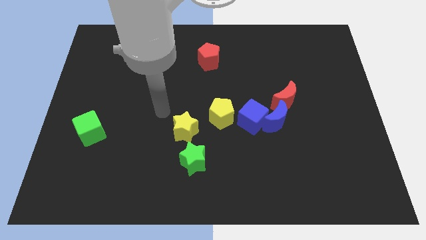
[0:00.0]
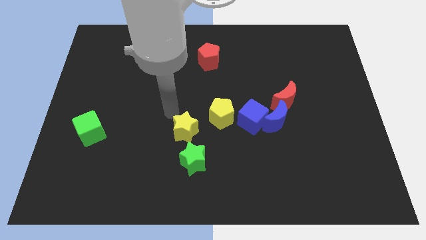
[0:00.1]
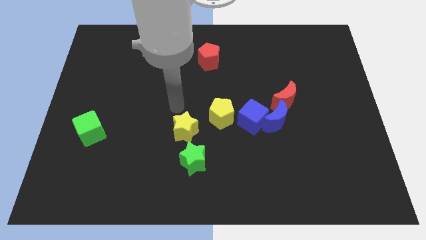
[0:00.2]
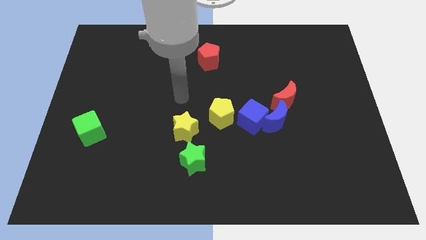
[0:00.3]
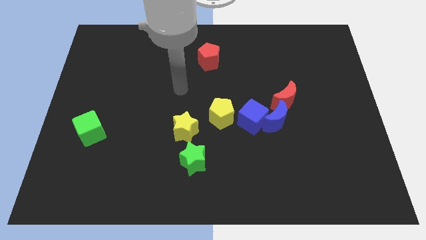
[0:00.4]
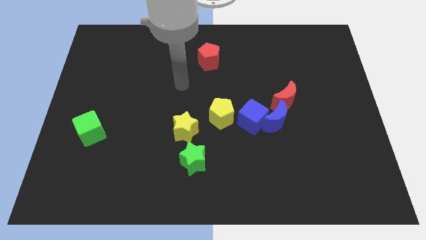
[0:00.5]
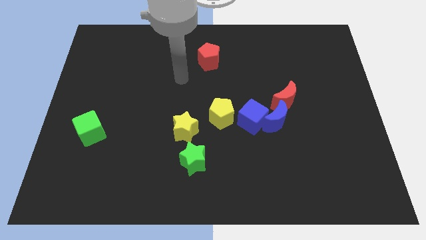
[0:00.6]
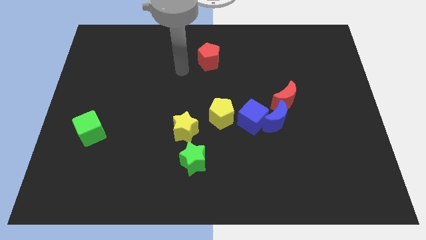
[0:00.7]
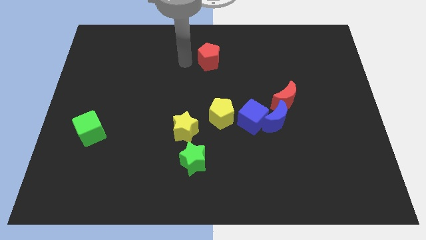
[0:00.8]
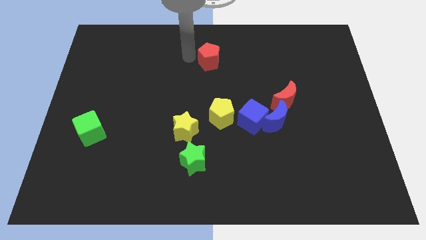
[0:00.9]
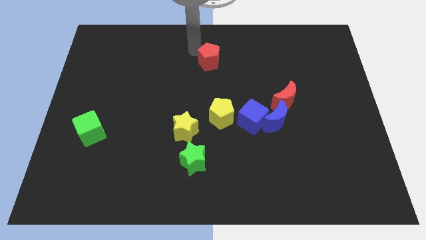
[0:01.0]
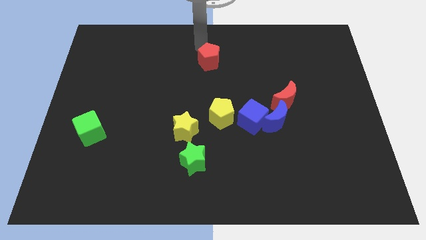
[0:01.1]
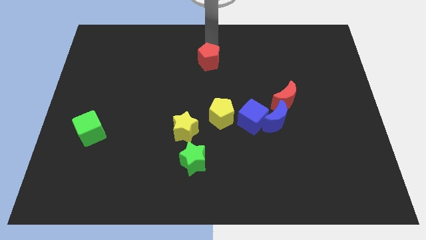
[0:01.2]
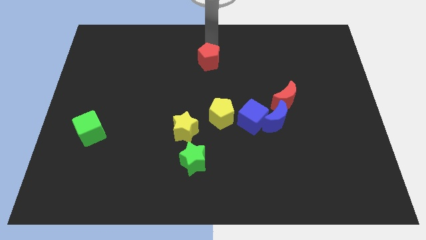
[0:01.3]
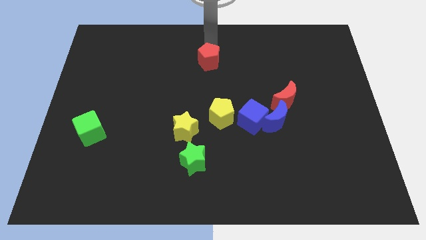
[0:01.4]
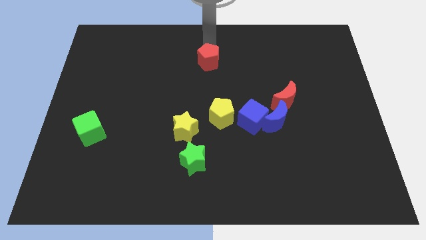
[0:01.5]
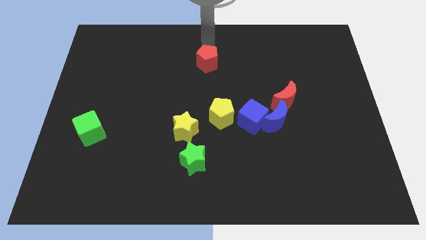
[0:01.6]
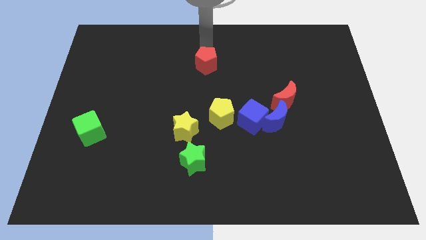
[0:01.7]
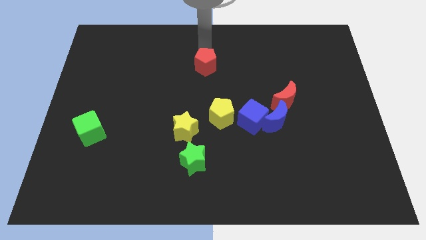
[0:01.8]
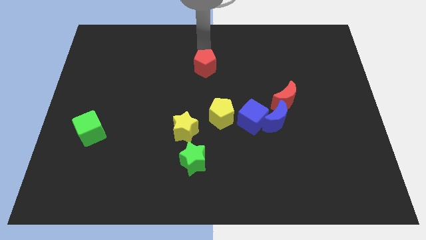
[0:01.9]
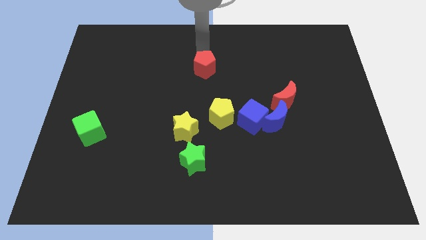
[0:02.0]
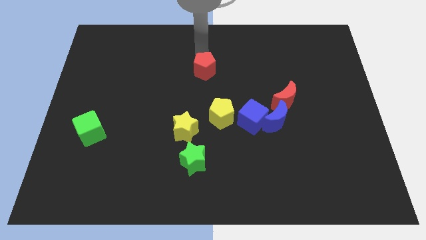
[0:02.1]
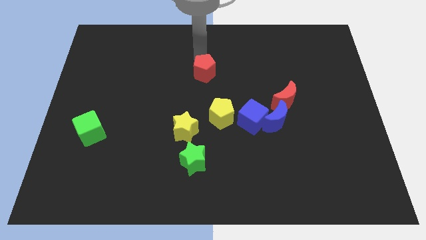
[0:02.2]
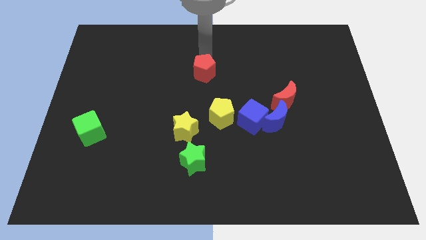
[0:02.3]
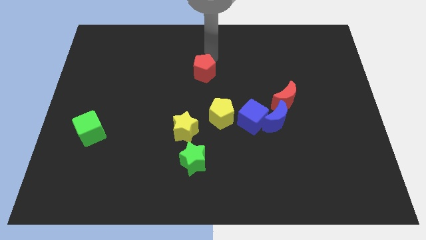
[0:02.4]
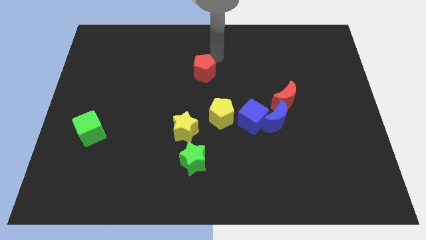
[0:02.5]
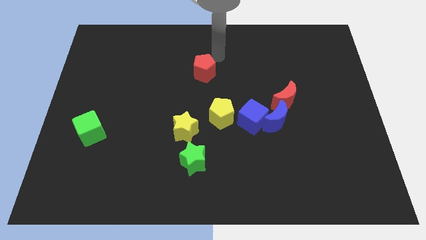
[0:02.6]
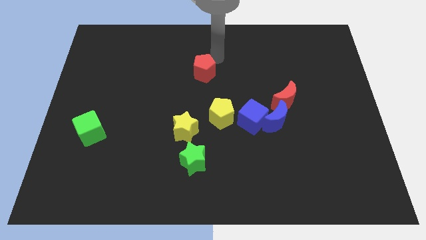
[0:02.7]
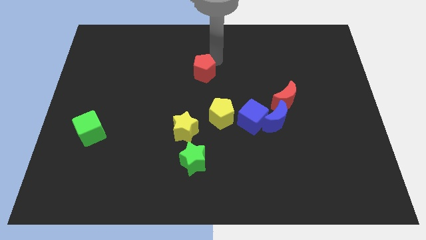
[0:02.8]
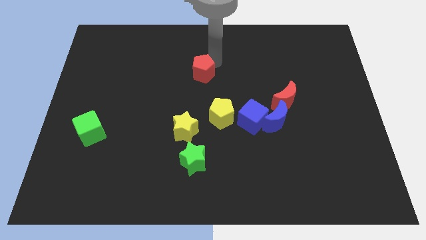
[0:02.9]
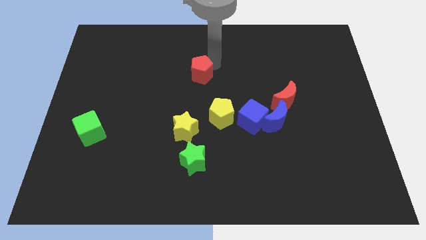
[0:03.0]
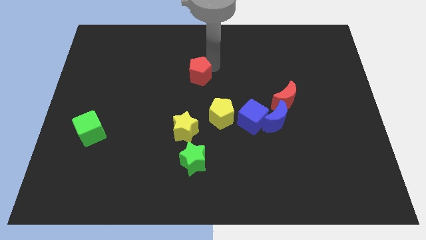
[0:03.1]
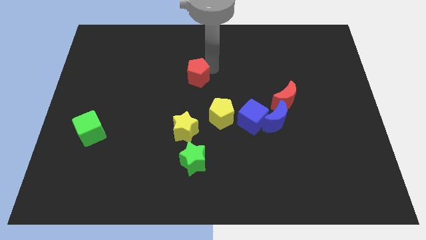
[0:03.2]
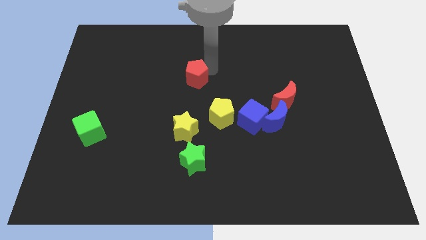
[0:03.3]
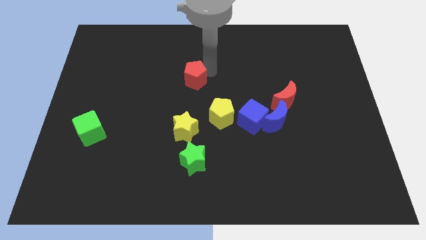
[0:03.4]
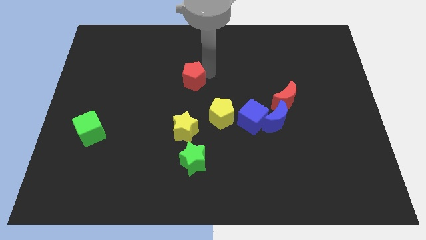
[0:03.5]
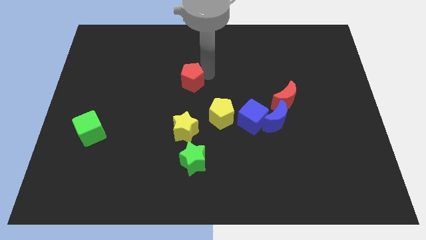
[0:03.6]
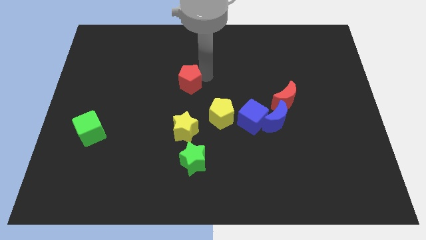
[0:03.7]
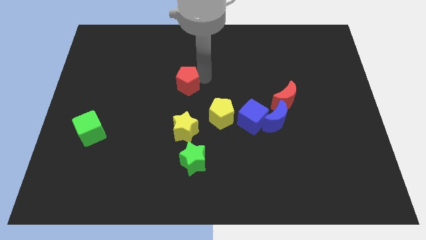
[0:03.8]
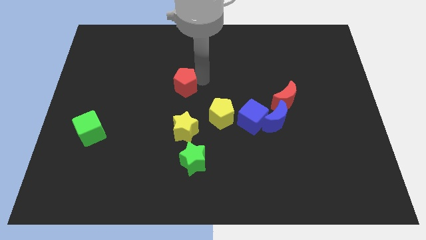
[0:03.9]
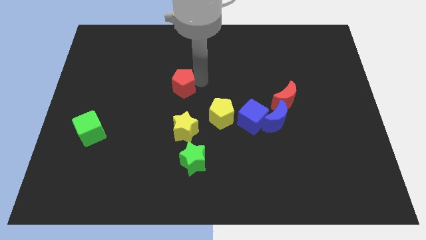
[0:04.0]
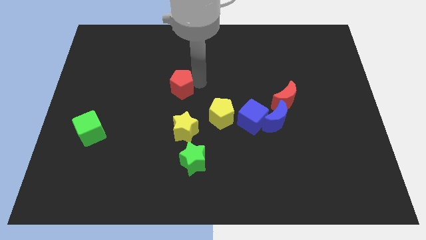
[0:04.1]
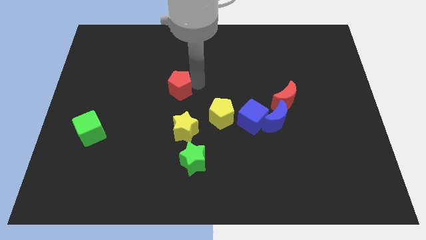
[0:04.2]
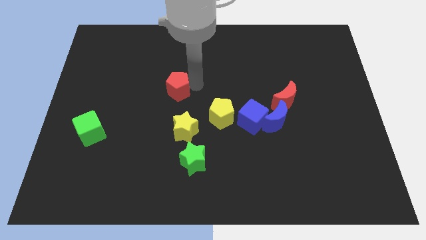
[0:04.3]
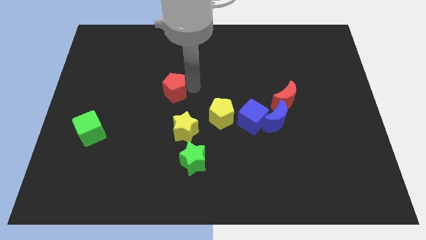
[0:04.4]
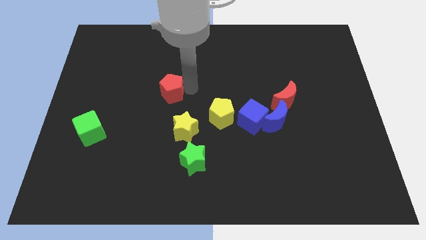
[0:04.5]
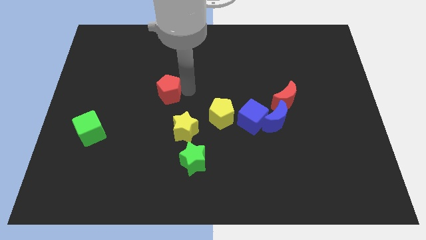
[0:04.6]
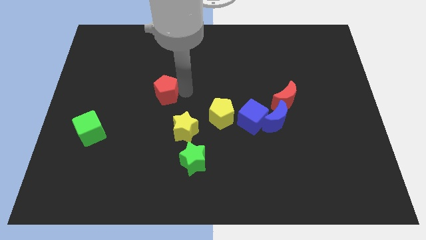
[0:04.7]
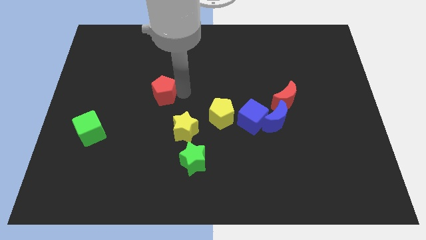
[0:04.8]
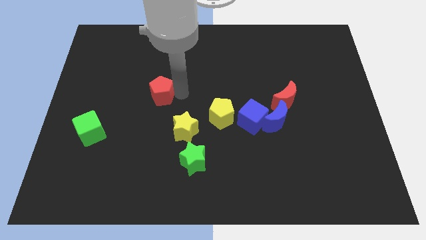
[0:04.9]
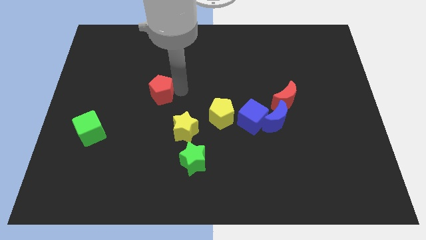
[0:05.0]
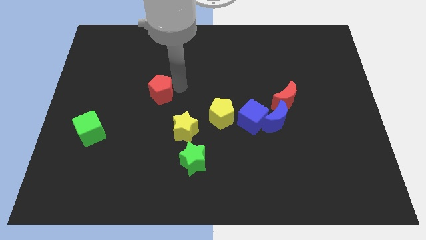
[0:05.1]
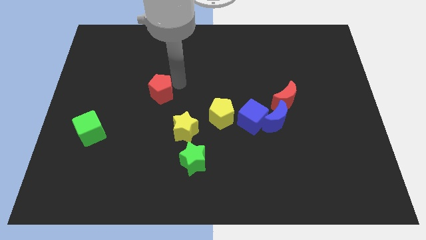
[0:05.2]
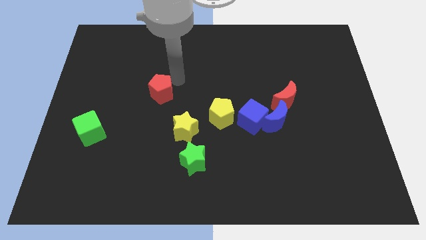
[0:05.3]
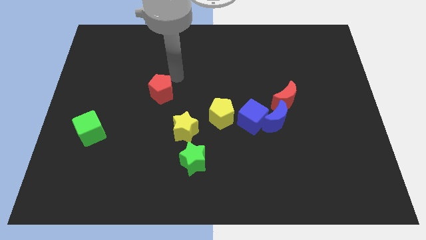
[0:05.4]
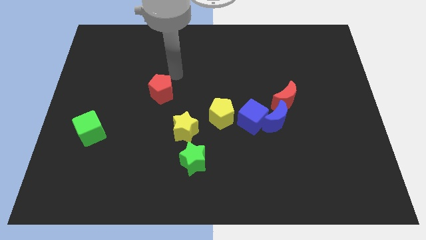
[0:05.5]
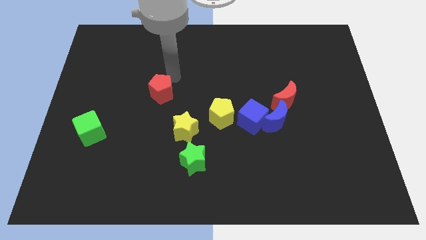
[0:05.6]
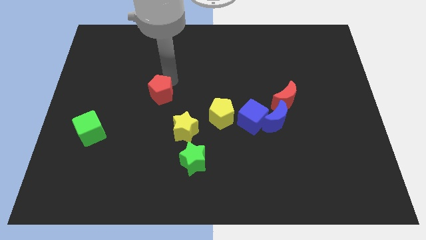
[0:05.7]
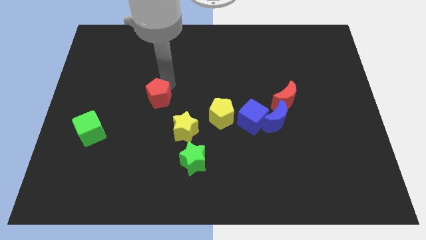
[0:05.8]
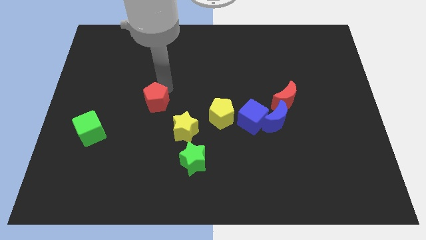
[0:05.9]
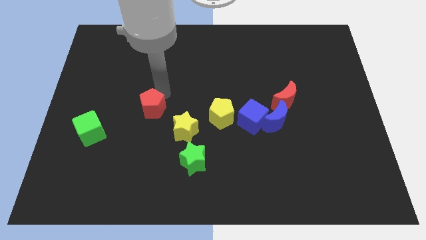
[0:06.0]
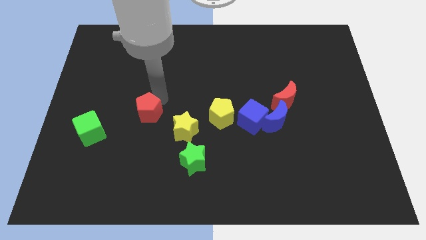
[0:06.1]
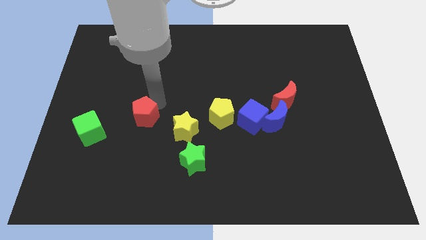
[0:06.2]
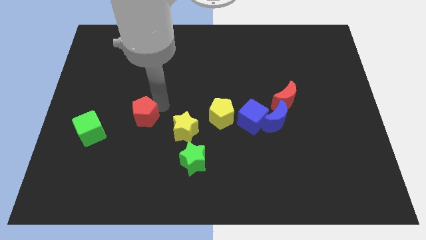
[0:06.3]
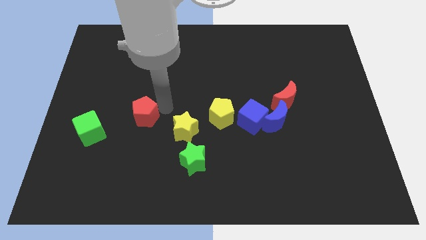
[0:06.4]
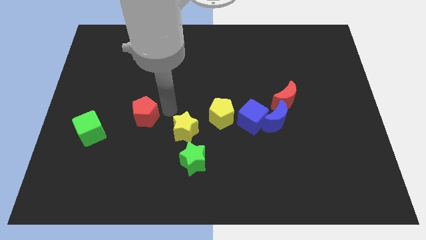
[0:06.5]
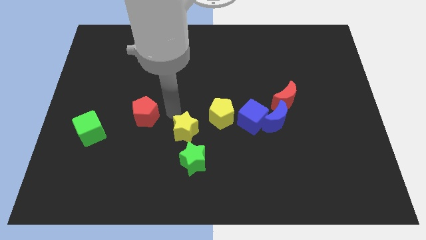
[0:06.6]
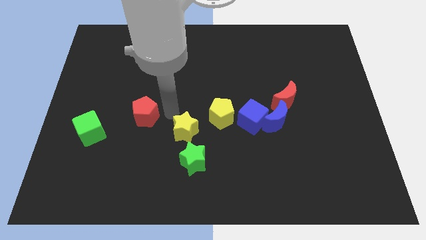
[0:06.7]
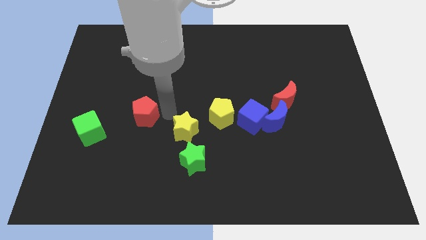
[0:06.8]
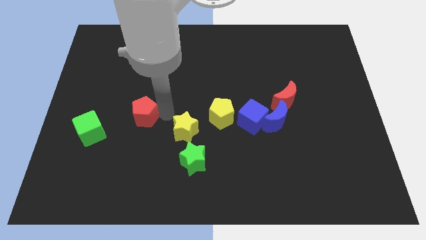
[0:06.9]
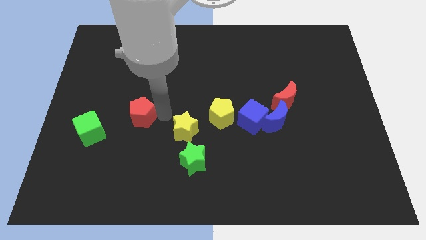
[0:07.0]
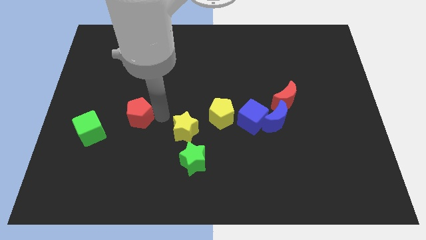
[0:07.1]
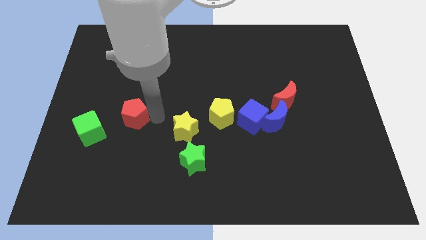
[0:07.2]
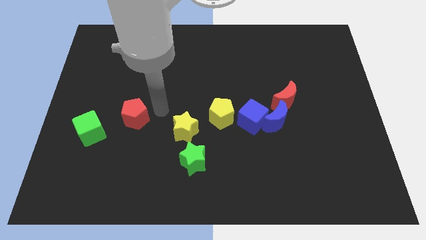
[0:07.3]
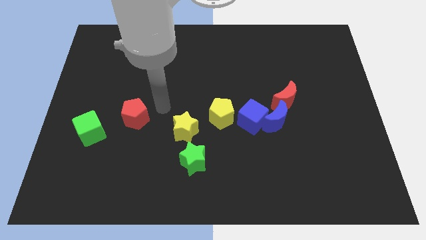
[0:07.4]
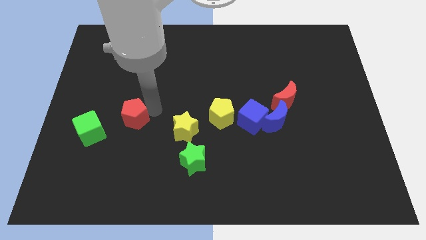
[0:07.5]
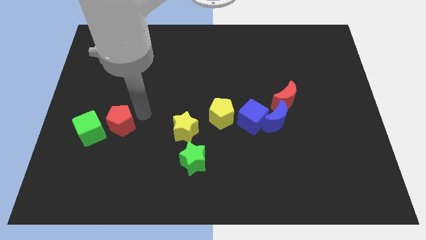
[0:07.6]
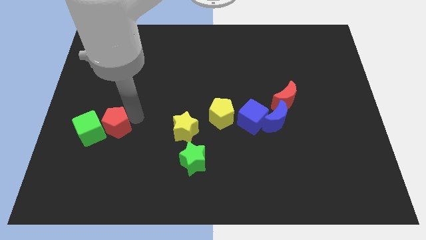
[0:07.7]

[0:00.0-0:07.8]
slide the red pentagon close to the green cube
